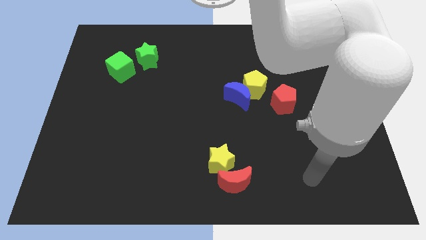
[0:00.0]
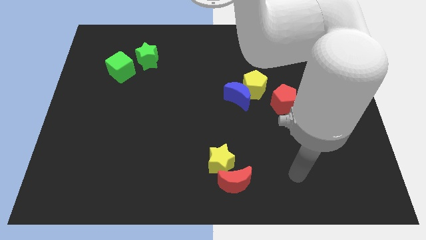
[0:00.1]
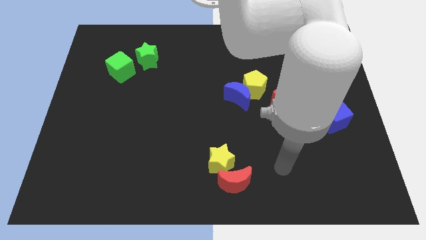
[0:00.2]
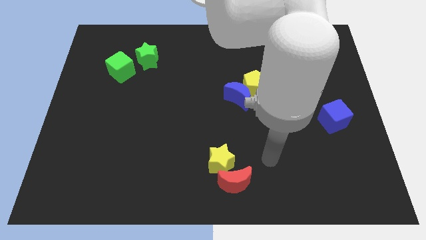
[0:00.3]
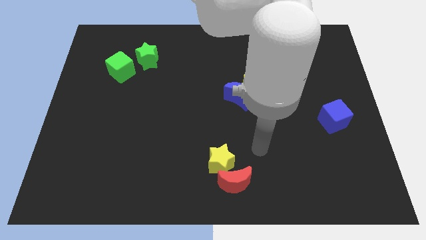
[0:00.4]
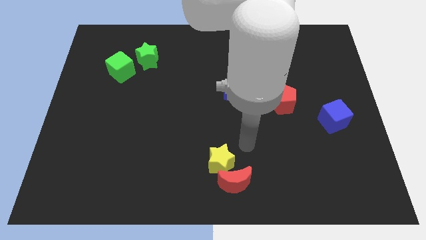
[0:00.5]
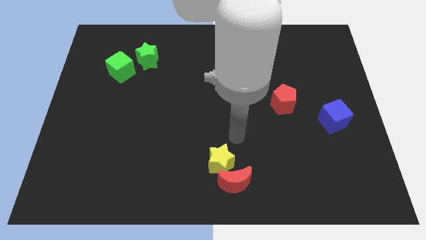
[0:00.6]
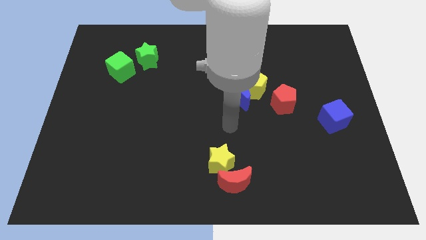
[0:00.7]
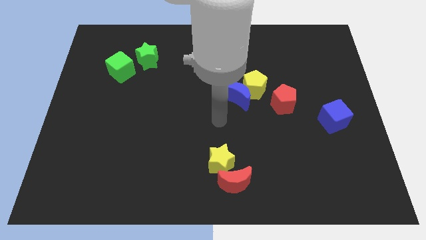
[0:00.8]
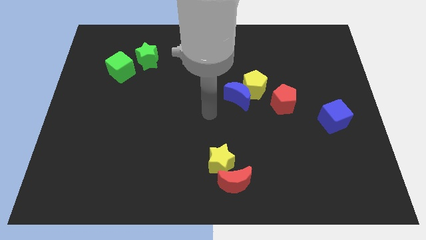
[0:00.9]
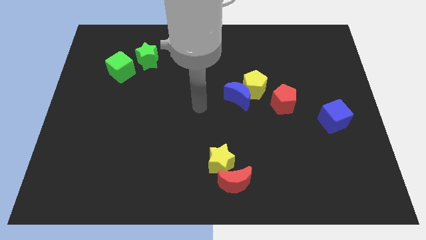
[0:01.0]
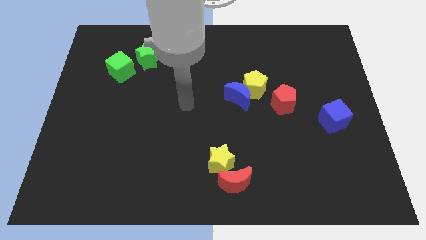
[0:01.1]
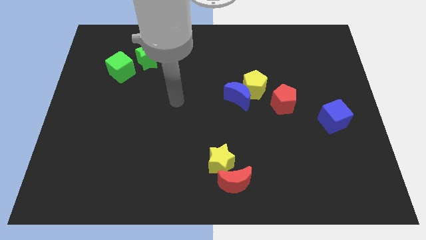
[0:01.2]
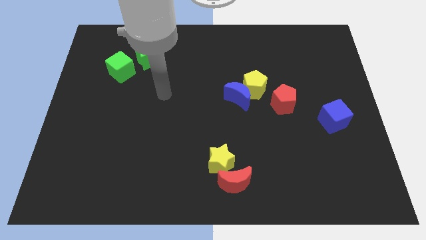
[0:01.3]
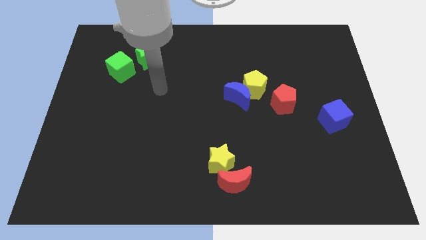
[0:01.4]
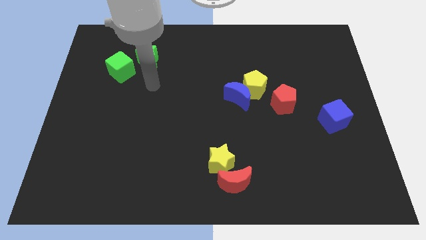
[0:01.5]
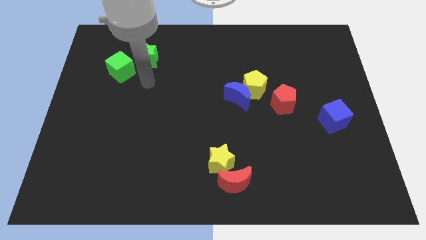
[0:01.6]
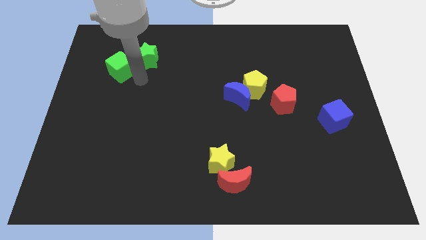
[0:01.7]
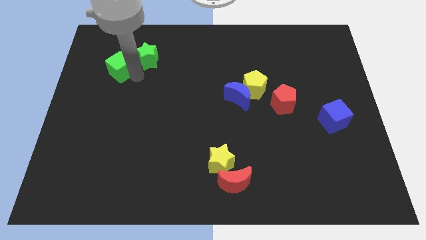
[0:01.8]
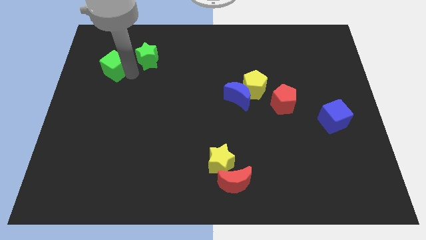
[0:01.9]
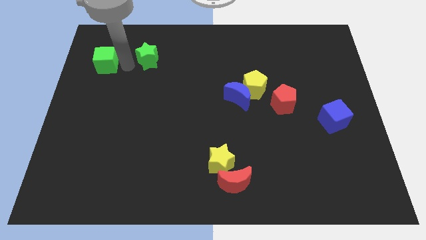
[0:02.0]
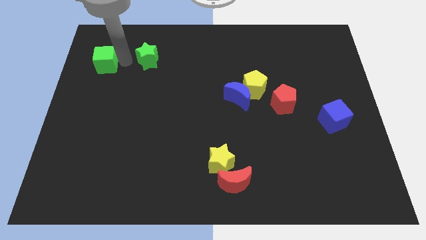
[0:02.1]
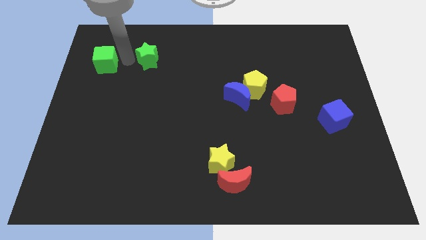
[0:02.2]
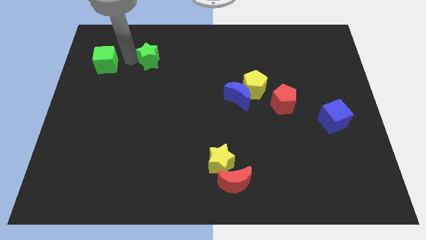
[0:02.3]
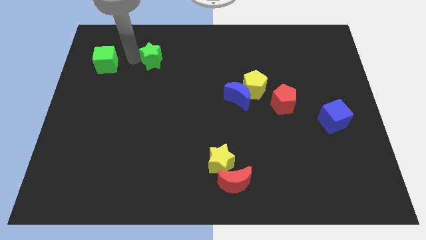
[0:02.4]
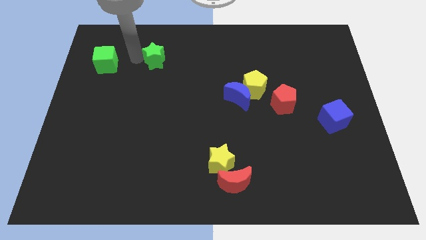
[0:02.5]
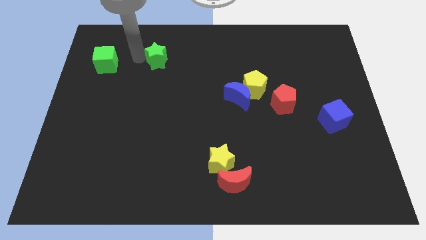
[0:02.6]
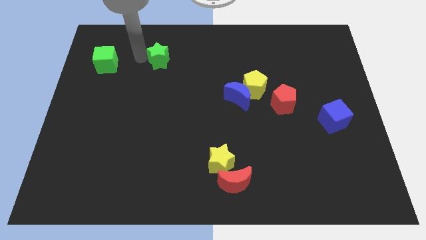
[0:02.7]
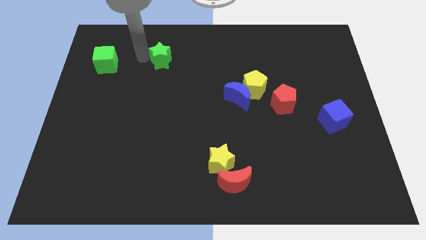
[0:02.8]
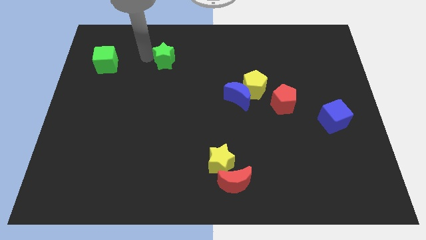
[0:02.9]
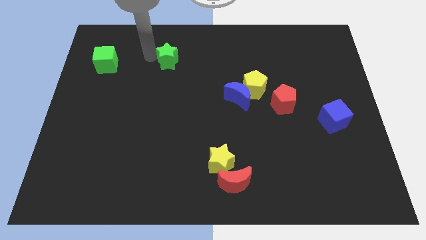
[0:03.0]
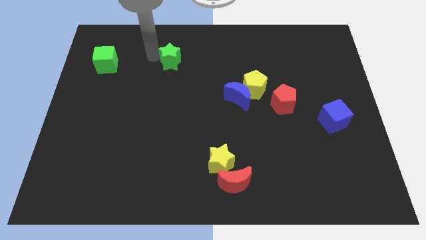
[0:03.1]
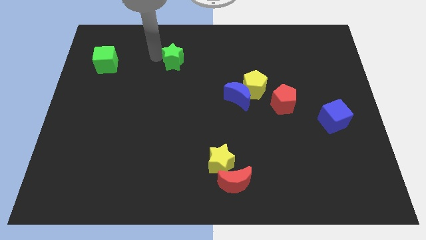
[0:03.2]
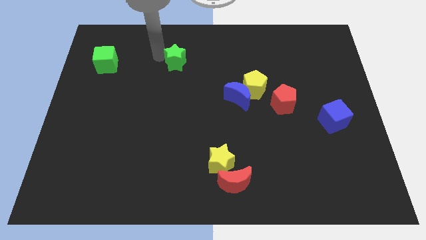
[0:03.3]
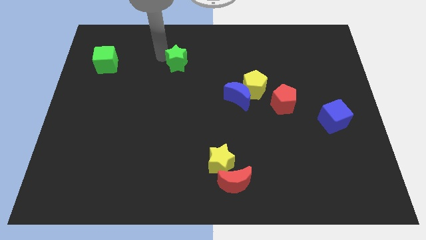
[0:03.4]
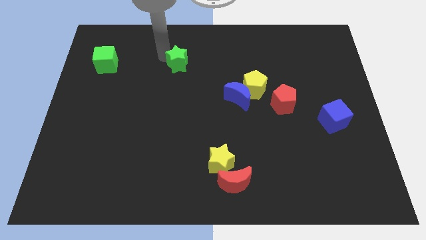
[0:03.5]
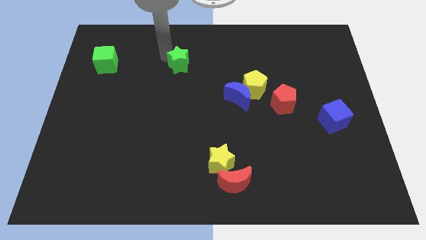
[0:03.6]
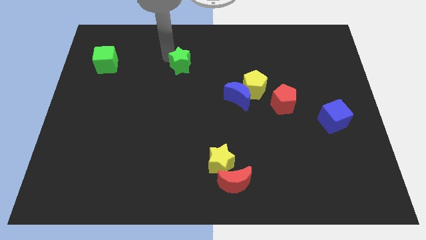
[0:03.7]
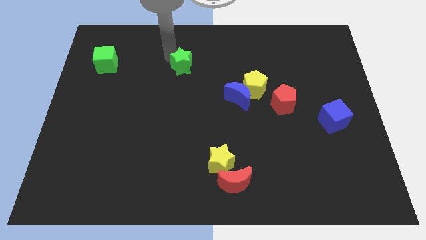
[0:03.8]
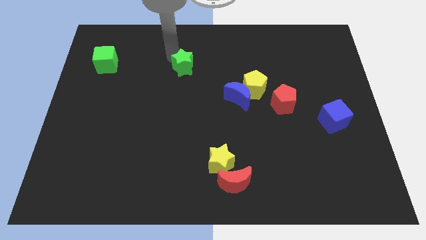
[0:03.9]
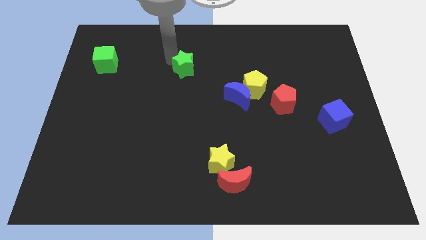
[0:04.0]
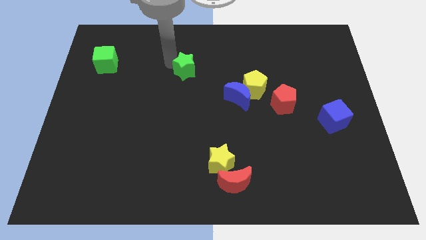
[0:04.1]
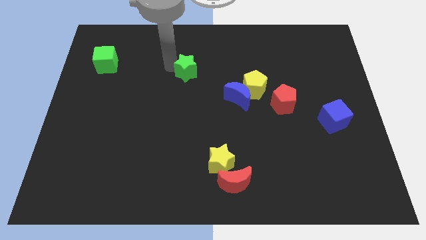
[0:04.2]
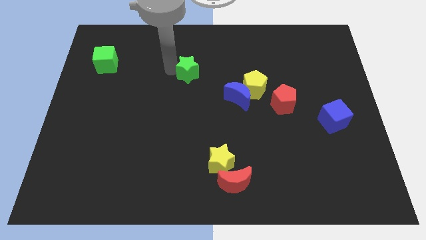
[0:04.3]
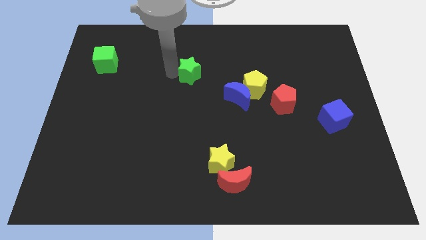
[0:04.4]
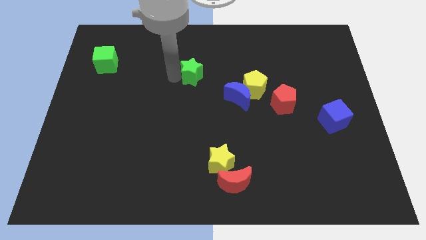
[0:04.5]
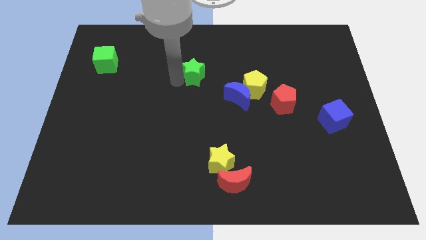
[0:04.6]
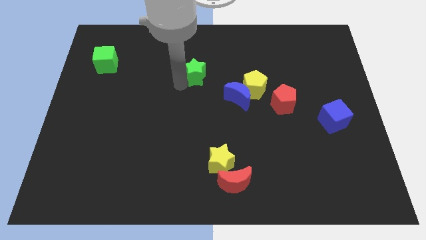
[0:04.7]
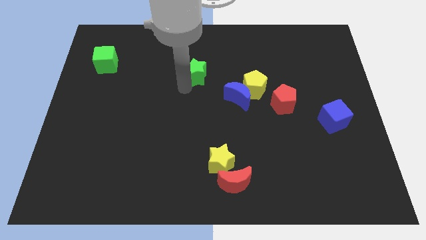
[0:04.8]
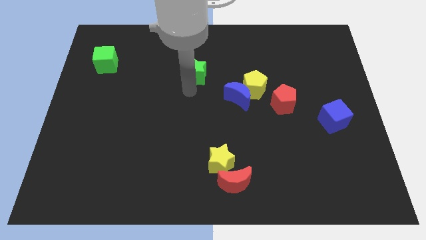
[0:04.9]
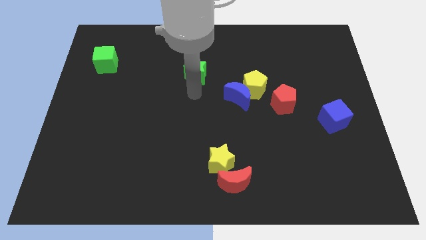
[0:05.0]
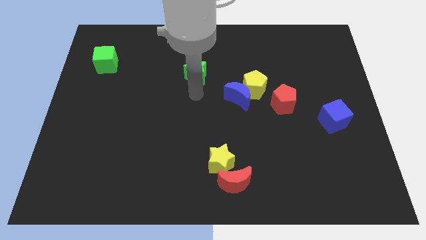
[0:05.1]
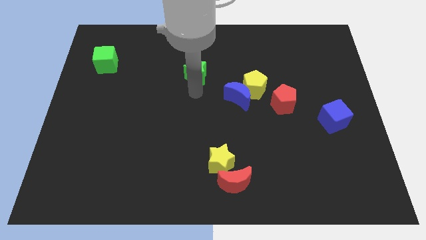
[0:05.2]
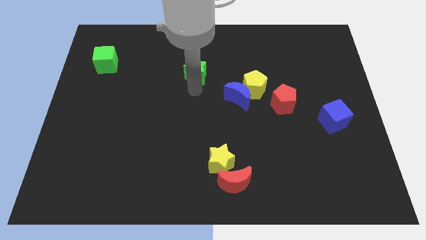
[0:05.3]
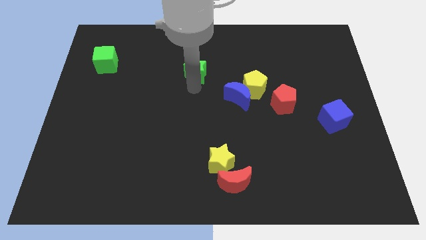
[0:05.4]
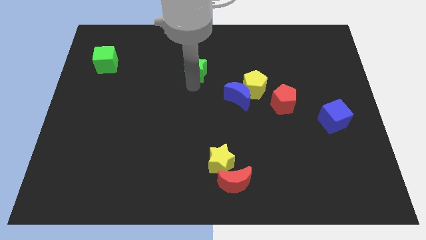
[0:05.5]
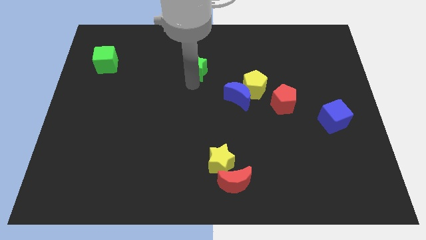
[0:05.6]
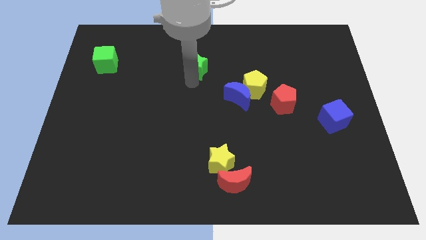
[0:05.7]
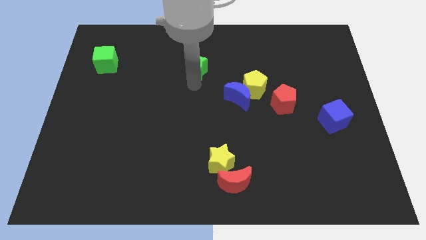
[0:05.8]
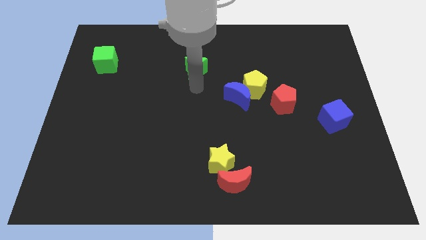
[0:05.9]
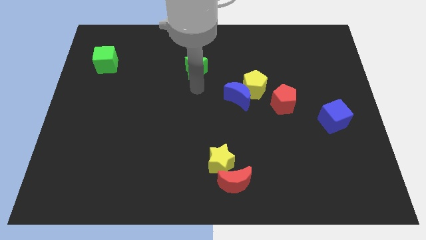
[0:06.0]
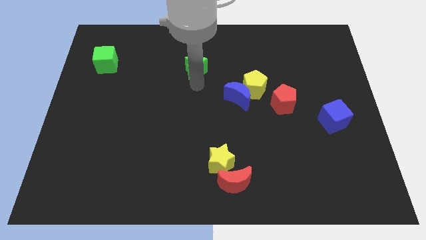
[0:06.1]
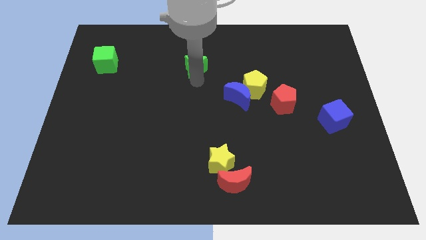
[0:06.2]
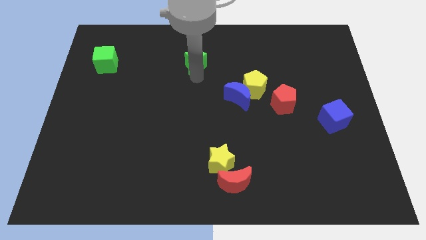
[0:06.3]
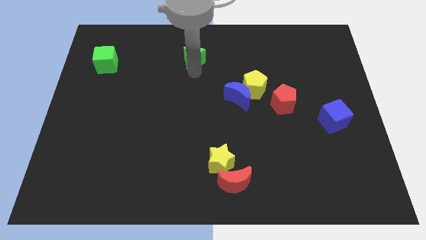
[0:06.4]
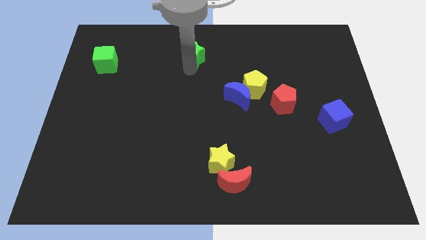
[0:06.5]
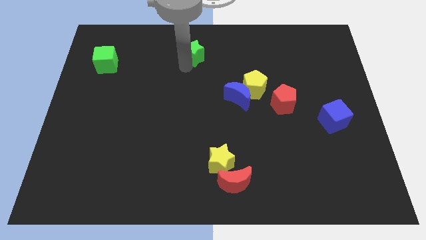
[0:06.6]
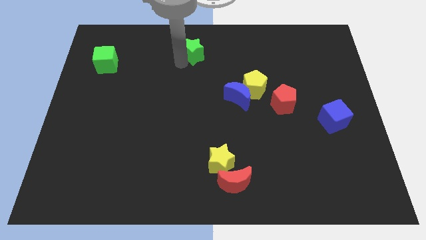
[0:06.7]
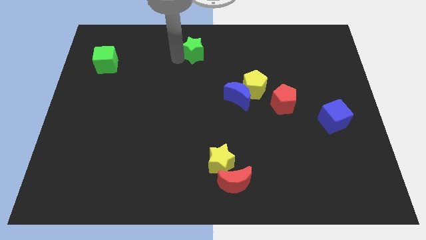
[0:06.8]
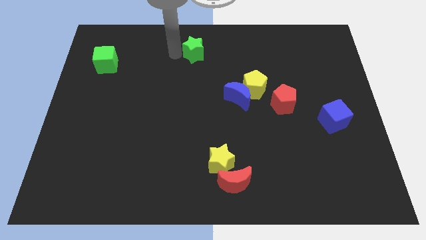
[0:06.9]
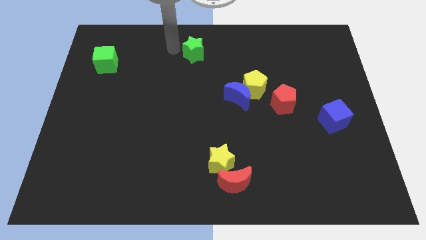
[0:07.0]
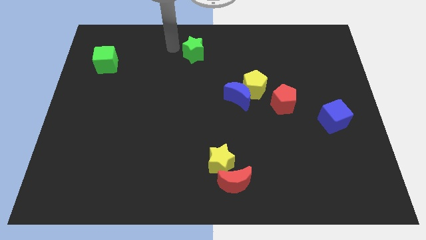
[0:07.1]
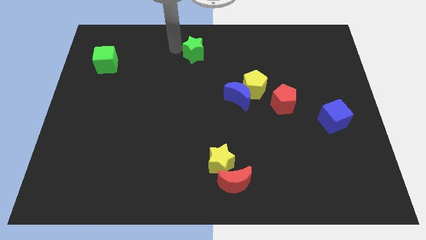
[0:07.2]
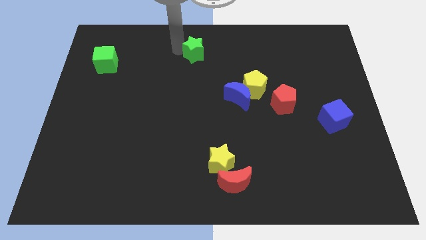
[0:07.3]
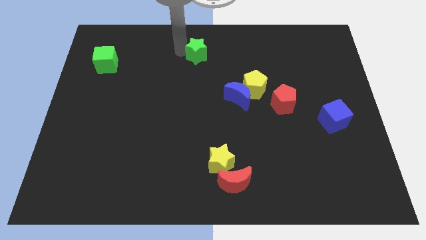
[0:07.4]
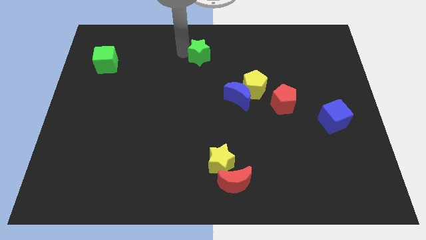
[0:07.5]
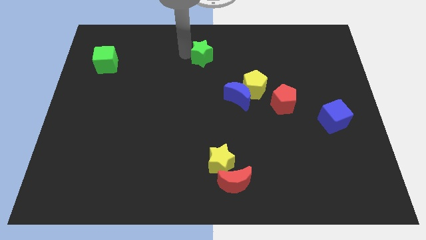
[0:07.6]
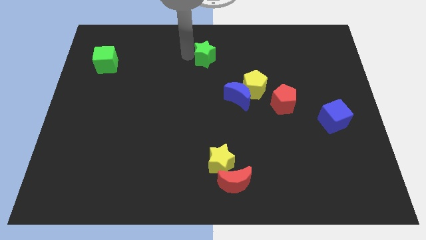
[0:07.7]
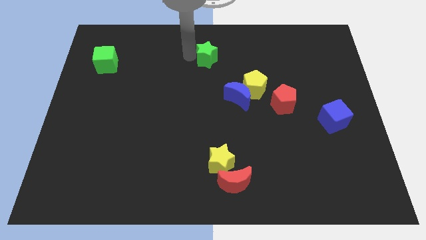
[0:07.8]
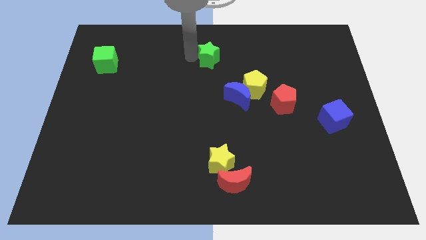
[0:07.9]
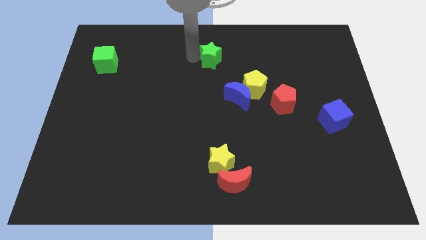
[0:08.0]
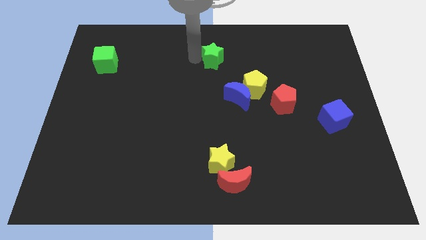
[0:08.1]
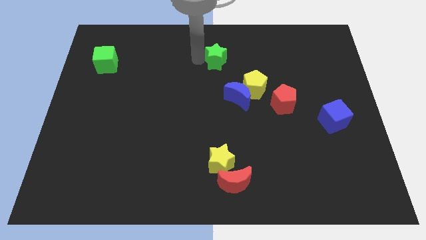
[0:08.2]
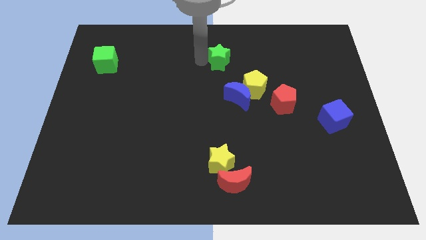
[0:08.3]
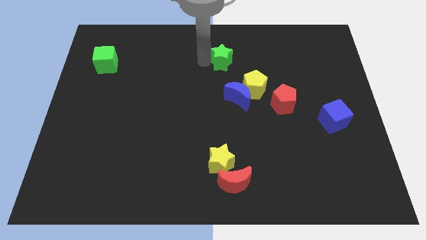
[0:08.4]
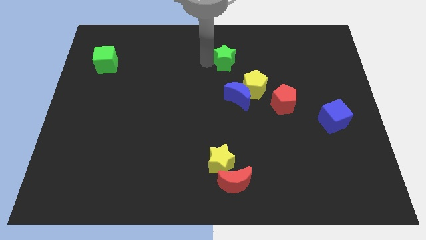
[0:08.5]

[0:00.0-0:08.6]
slide the green star right
